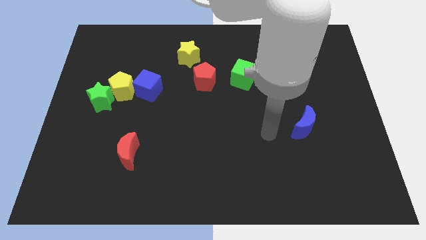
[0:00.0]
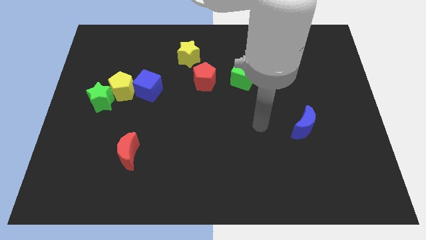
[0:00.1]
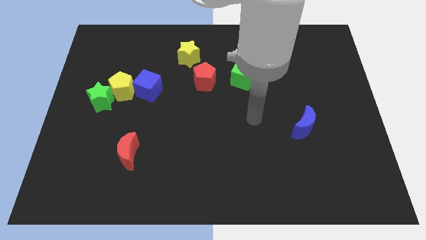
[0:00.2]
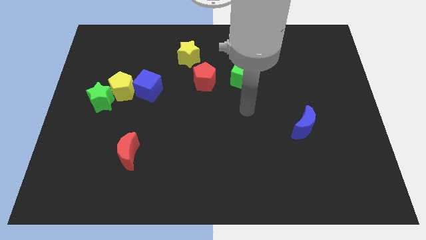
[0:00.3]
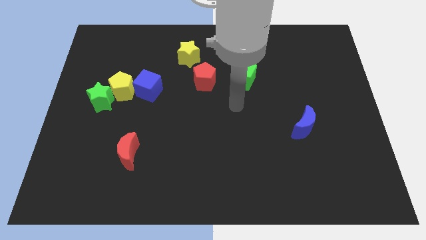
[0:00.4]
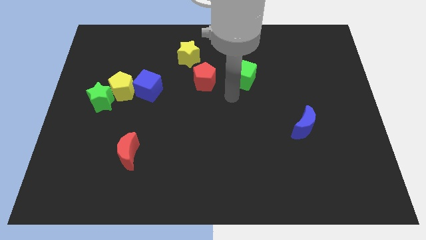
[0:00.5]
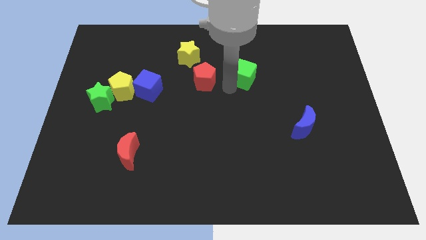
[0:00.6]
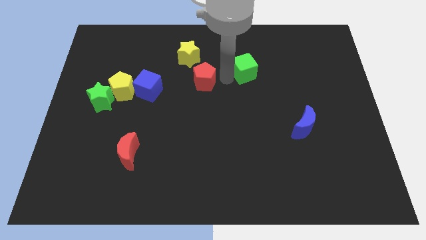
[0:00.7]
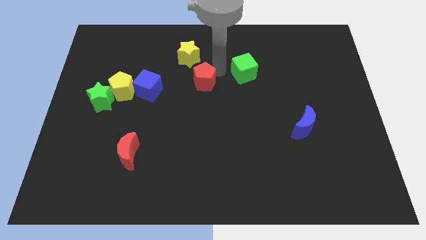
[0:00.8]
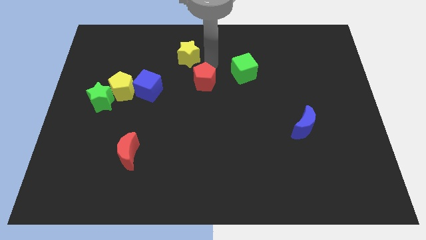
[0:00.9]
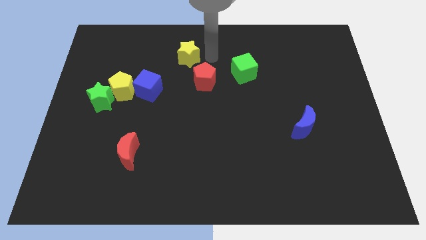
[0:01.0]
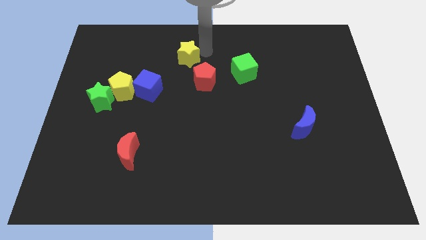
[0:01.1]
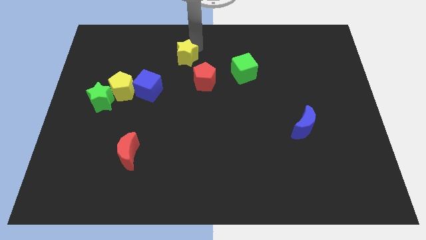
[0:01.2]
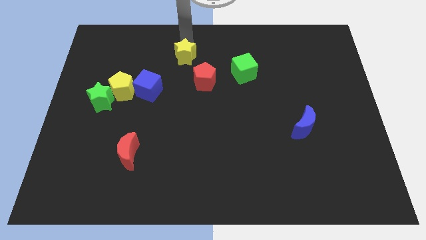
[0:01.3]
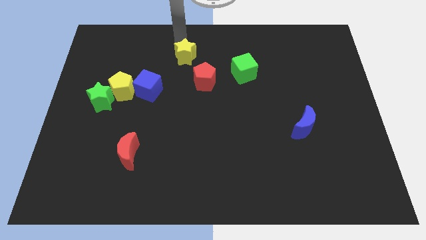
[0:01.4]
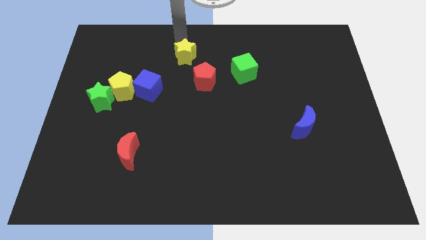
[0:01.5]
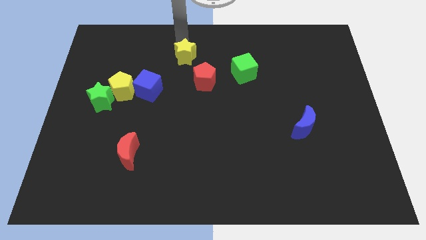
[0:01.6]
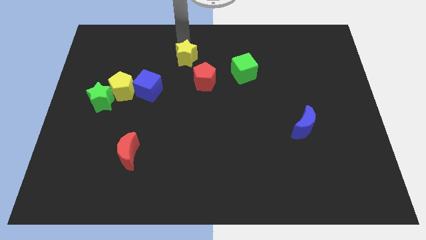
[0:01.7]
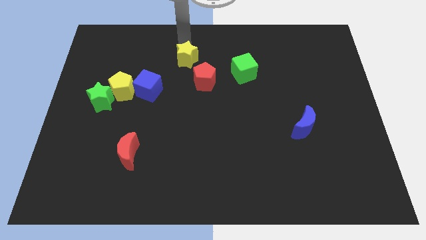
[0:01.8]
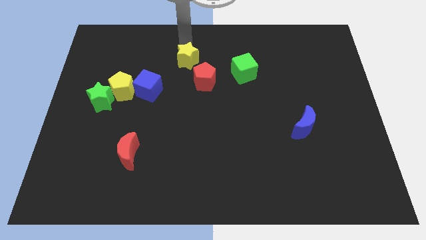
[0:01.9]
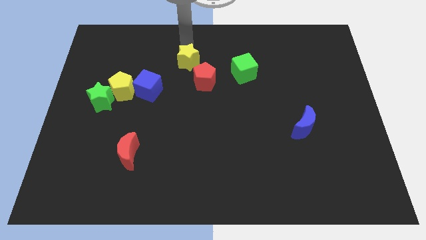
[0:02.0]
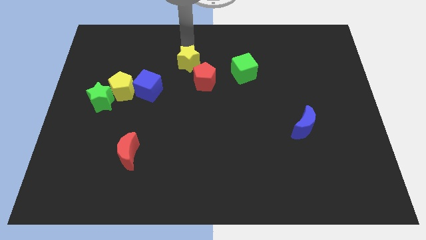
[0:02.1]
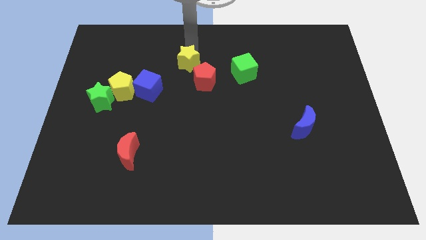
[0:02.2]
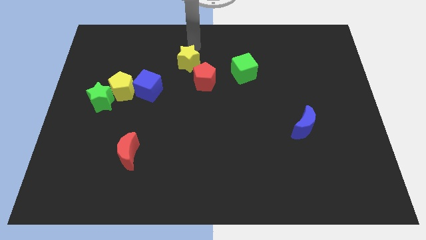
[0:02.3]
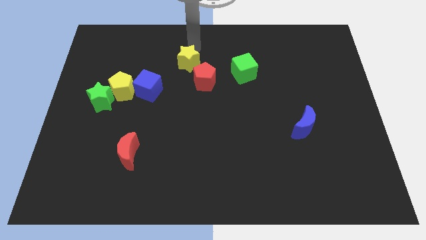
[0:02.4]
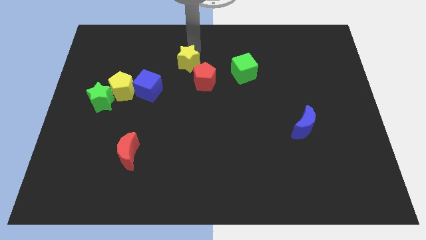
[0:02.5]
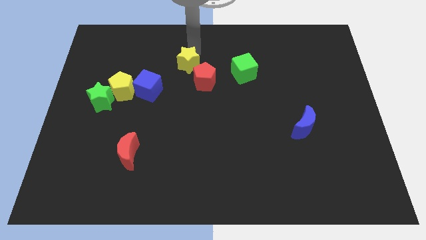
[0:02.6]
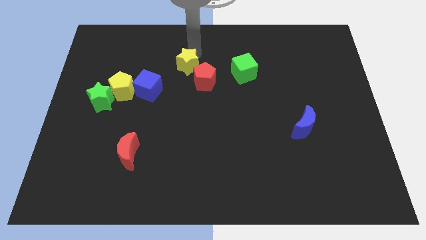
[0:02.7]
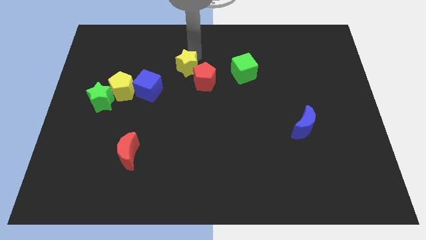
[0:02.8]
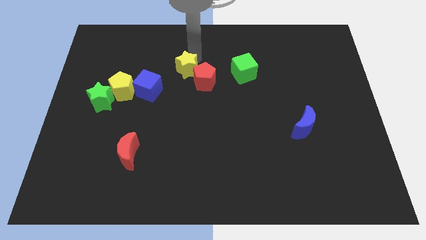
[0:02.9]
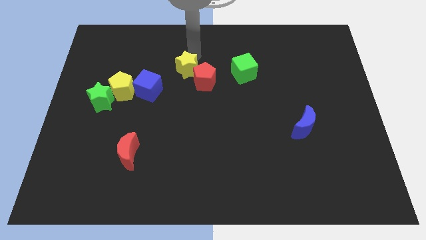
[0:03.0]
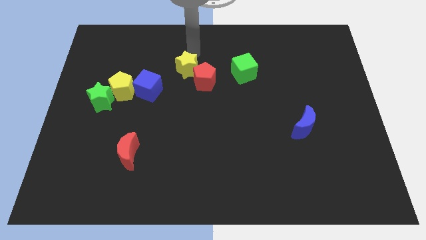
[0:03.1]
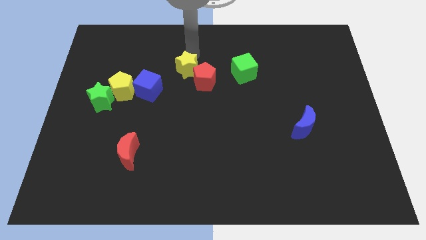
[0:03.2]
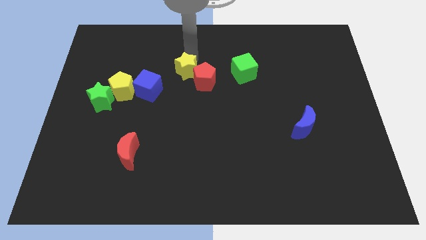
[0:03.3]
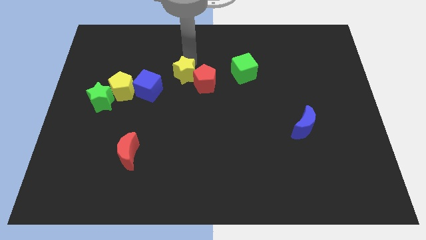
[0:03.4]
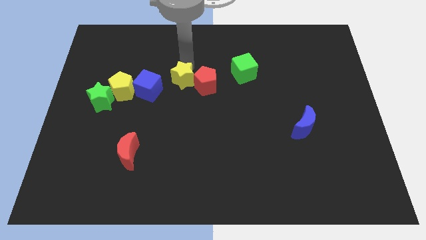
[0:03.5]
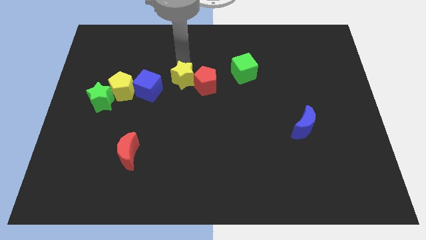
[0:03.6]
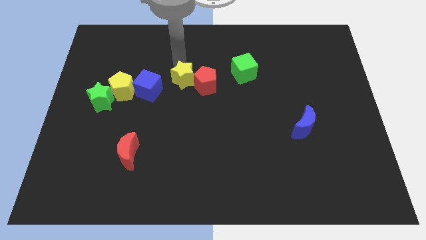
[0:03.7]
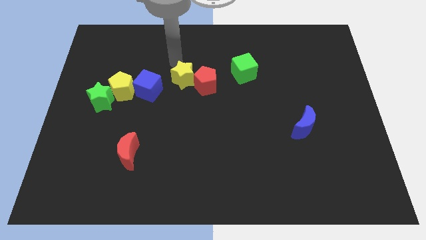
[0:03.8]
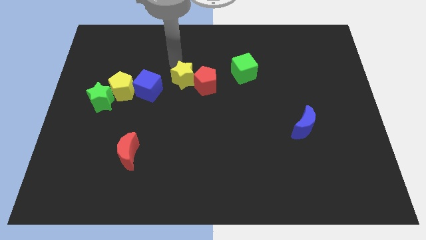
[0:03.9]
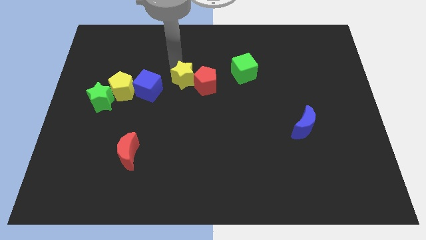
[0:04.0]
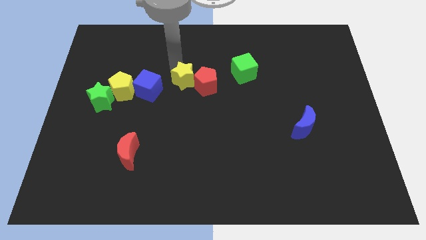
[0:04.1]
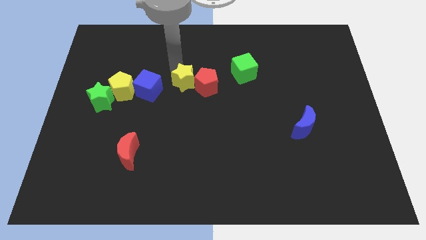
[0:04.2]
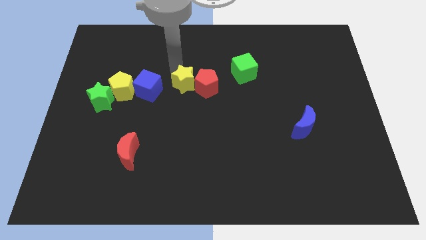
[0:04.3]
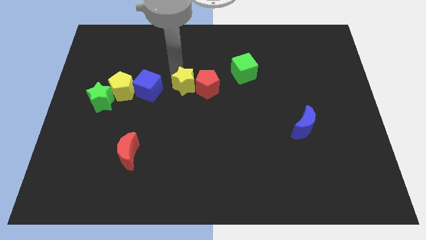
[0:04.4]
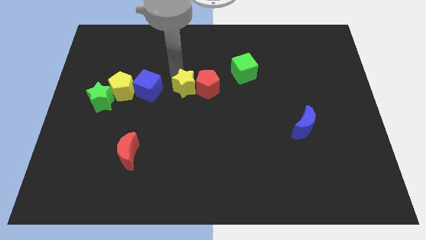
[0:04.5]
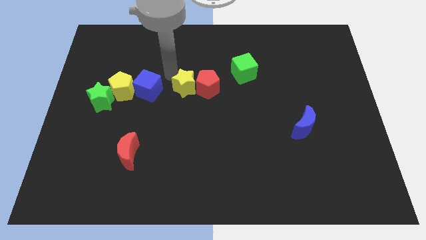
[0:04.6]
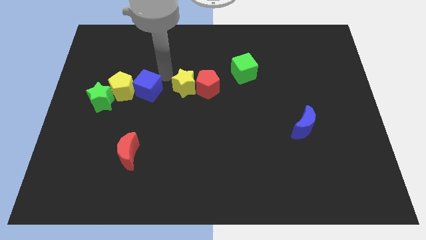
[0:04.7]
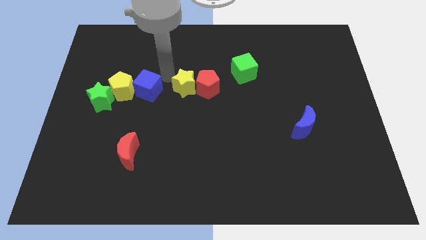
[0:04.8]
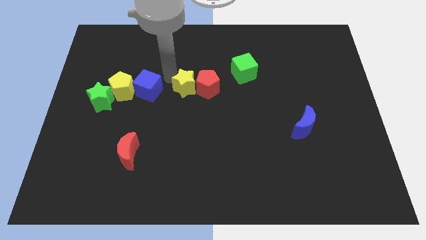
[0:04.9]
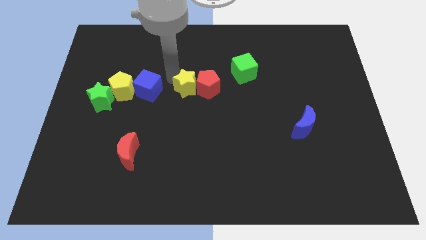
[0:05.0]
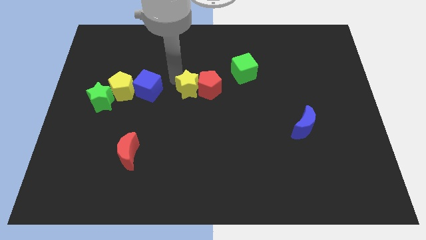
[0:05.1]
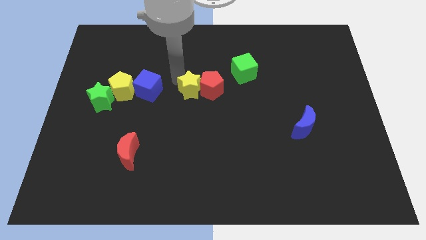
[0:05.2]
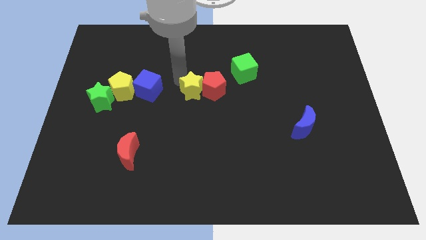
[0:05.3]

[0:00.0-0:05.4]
slightly slide the yellow star downwards and right diagonally

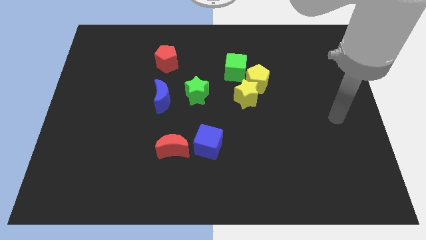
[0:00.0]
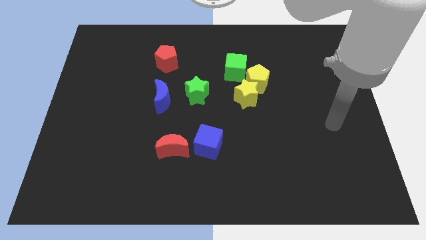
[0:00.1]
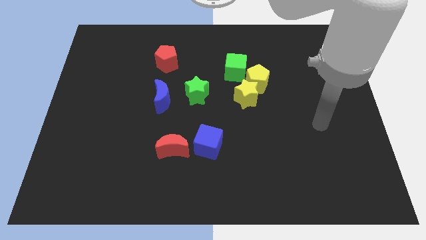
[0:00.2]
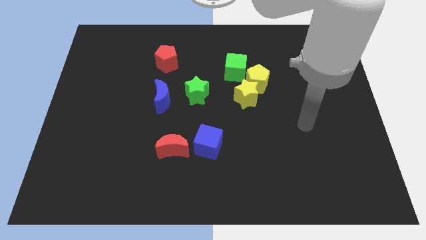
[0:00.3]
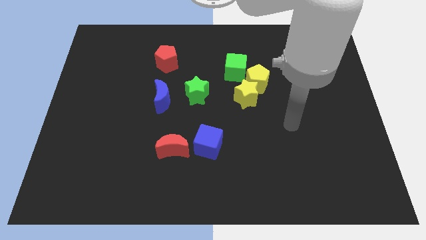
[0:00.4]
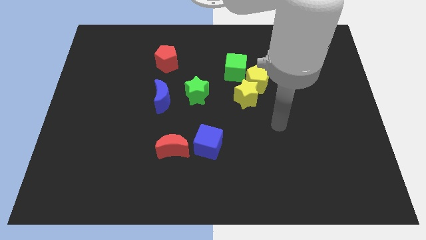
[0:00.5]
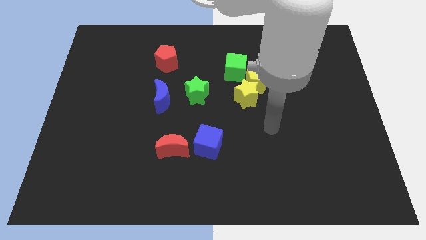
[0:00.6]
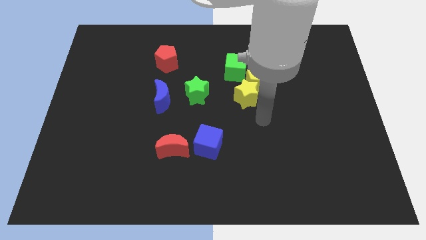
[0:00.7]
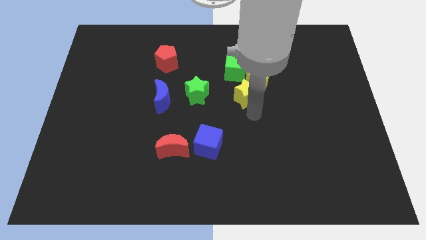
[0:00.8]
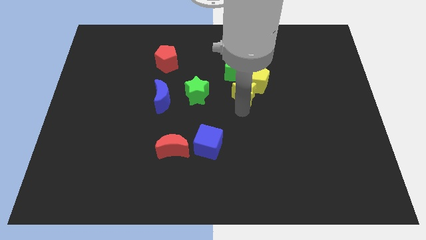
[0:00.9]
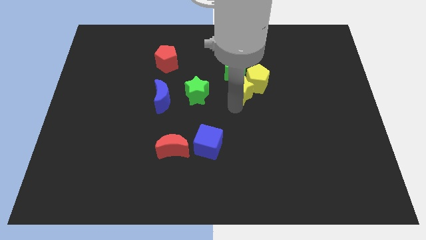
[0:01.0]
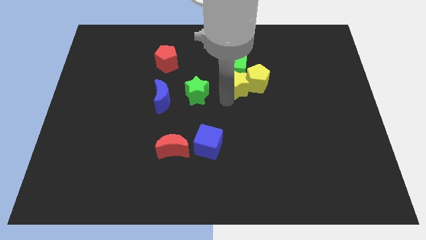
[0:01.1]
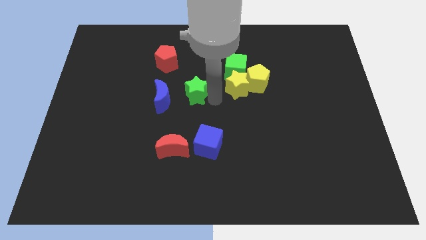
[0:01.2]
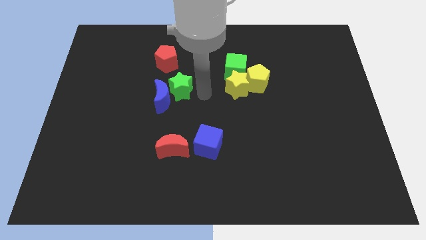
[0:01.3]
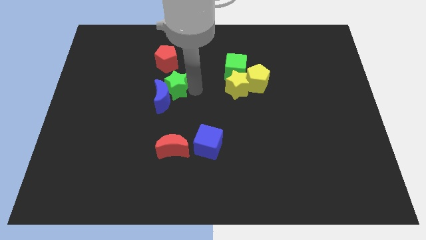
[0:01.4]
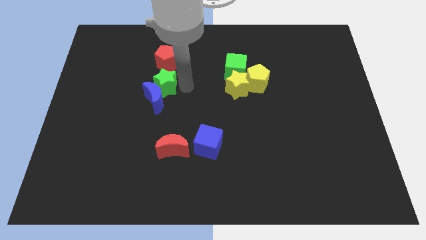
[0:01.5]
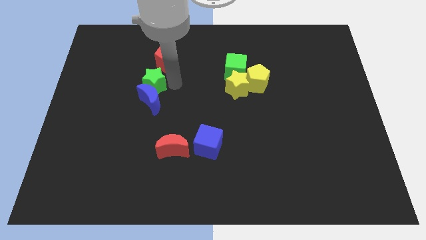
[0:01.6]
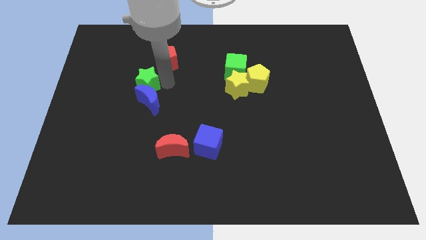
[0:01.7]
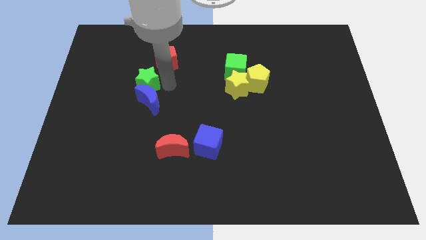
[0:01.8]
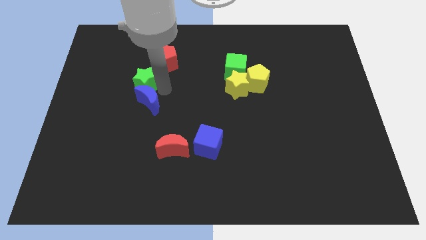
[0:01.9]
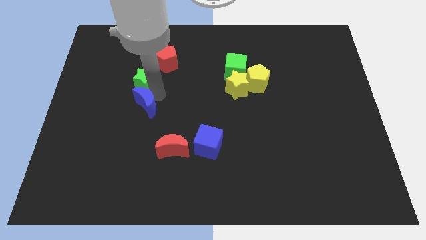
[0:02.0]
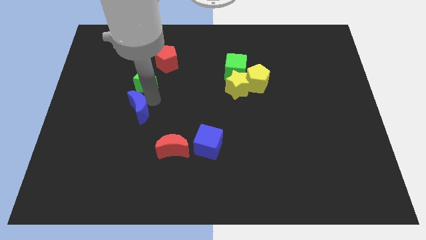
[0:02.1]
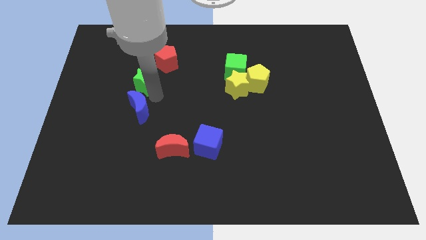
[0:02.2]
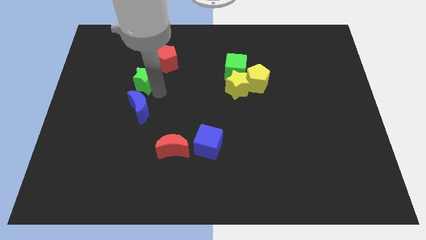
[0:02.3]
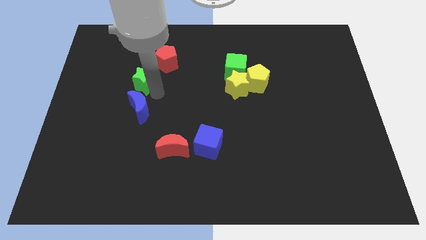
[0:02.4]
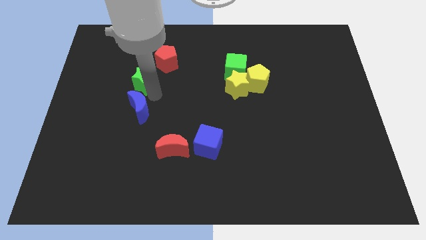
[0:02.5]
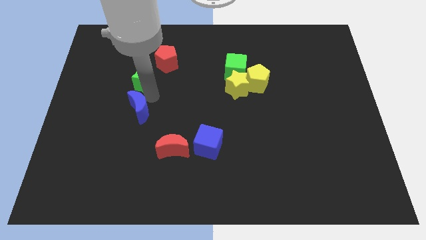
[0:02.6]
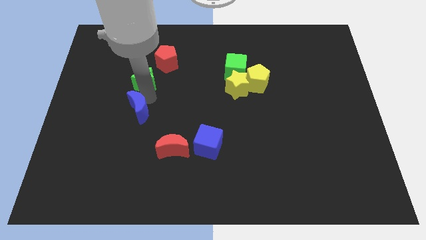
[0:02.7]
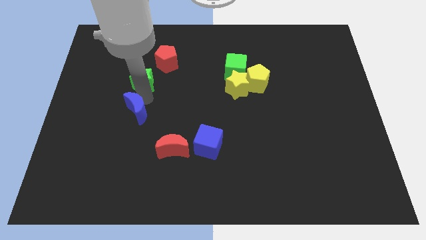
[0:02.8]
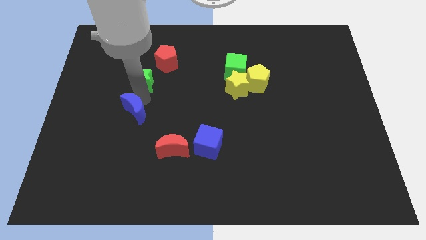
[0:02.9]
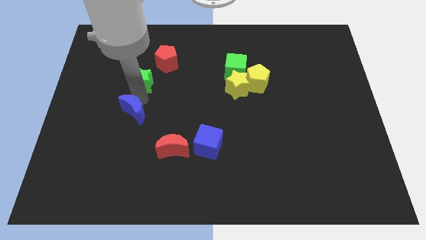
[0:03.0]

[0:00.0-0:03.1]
slightly move the blue moon downwards and left
